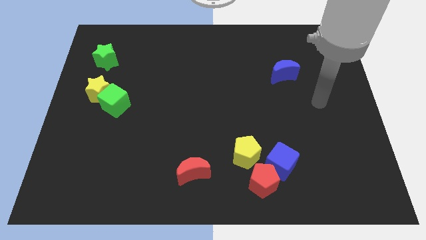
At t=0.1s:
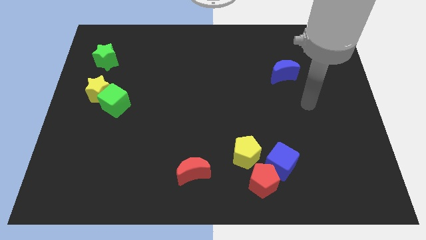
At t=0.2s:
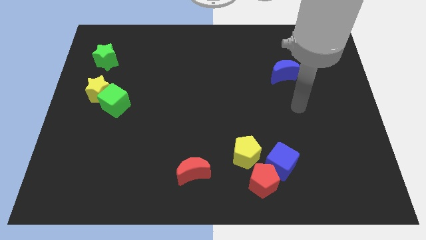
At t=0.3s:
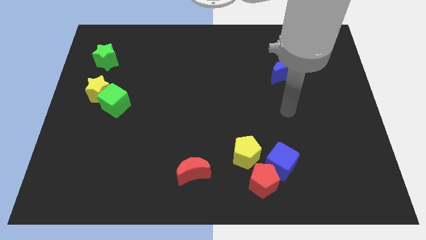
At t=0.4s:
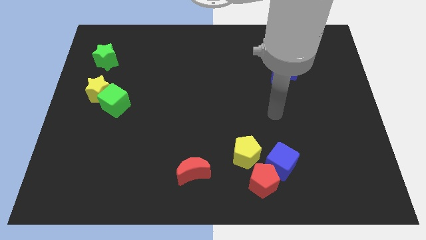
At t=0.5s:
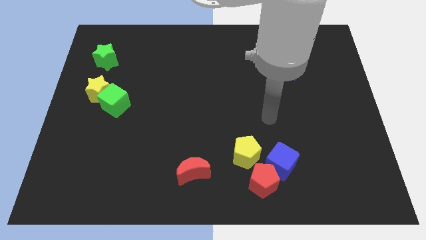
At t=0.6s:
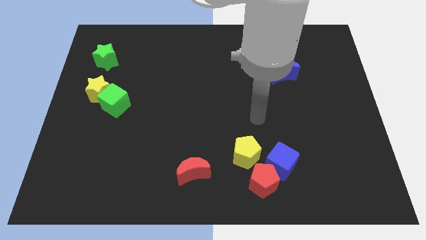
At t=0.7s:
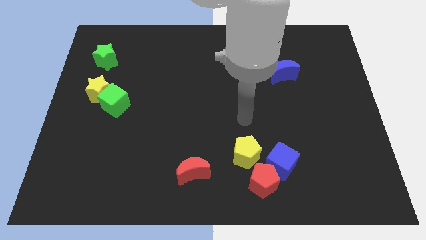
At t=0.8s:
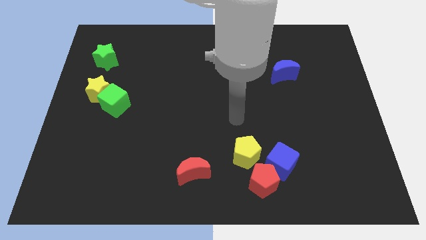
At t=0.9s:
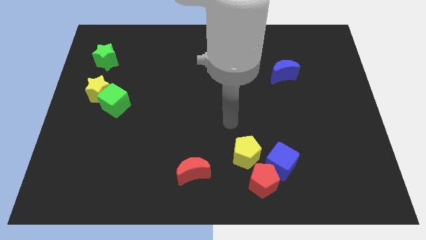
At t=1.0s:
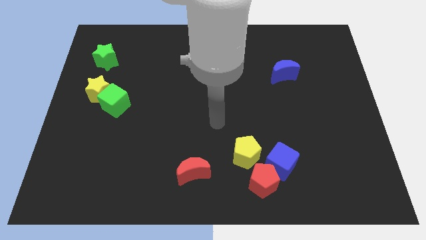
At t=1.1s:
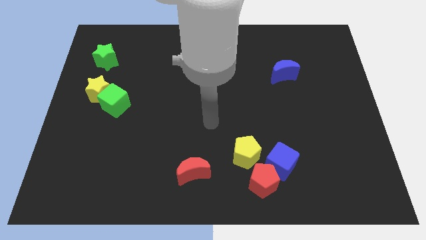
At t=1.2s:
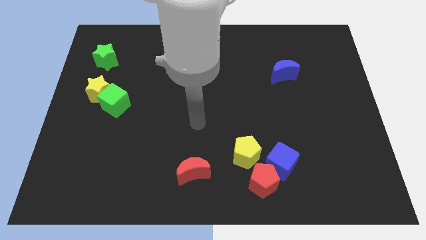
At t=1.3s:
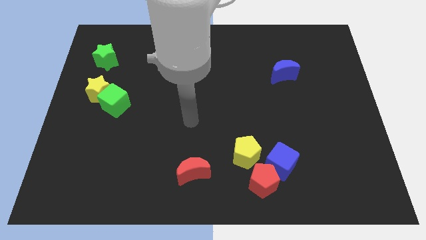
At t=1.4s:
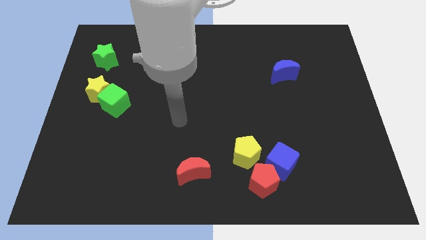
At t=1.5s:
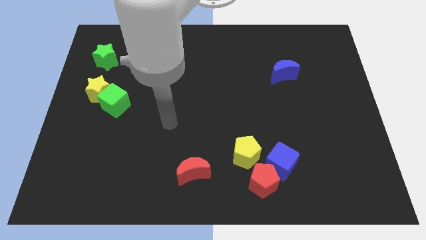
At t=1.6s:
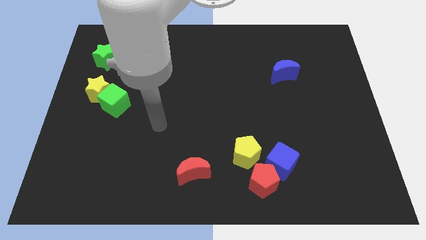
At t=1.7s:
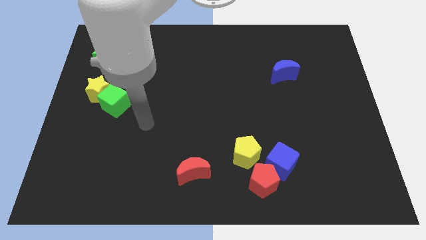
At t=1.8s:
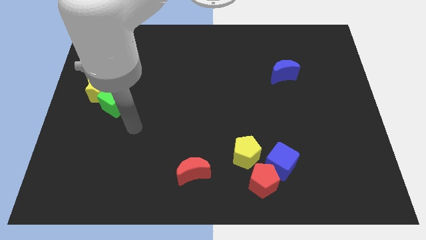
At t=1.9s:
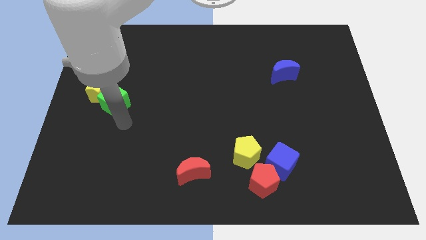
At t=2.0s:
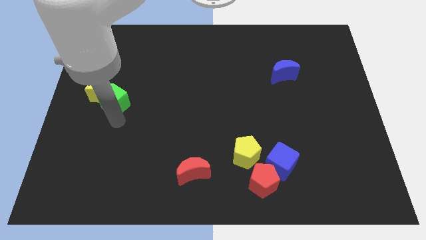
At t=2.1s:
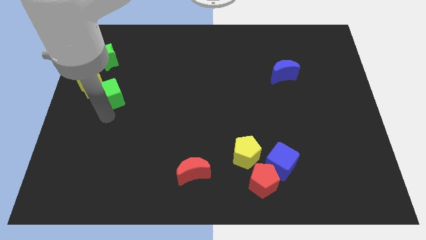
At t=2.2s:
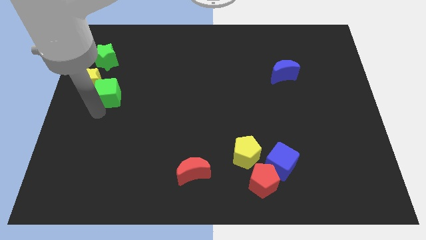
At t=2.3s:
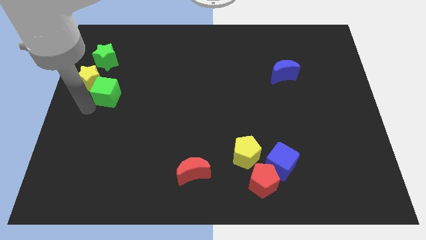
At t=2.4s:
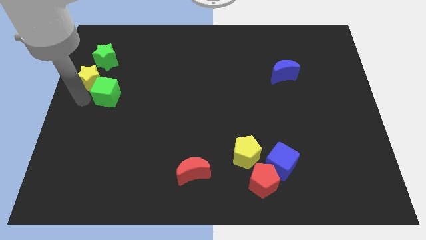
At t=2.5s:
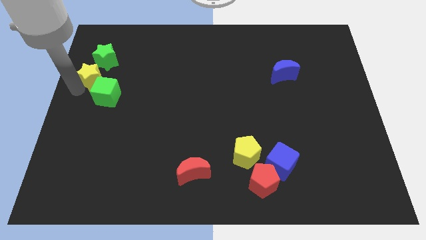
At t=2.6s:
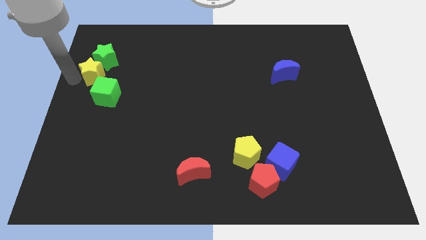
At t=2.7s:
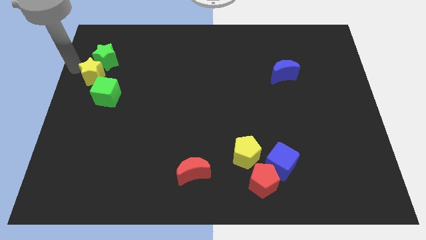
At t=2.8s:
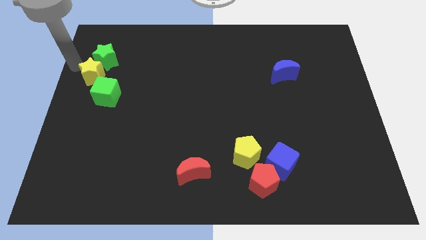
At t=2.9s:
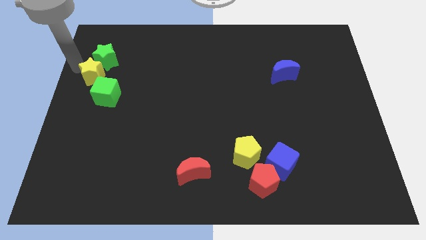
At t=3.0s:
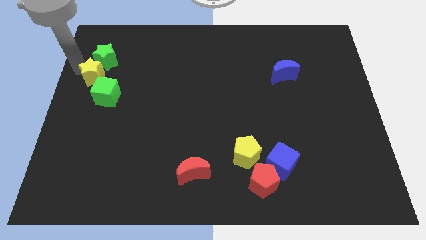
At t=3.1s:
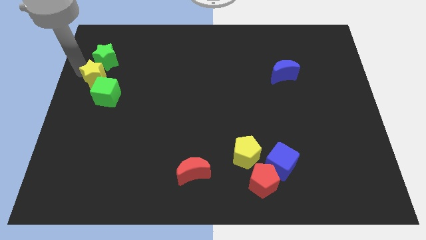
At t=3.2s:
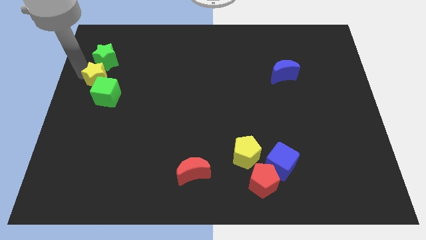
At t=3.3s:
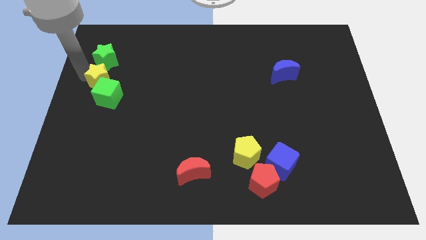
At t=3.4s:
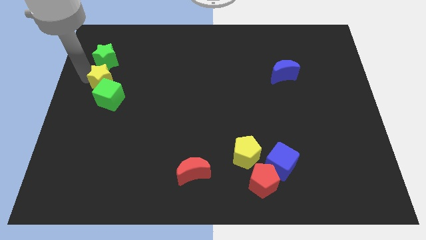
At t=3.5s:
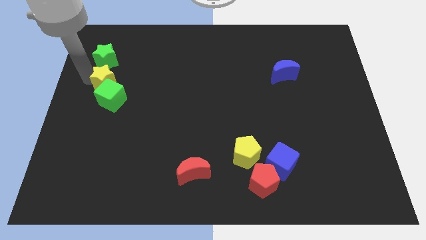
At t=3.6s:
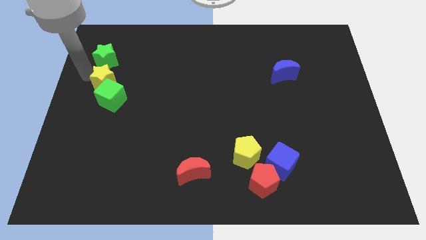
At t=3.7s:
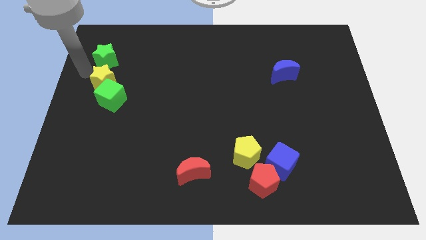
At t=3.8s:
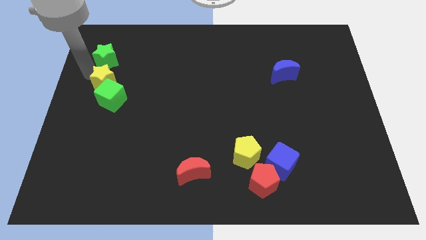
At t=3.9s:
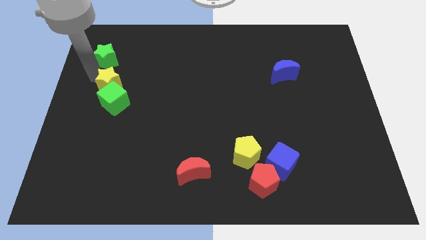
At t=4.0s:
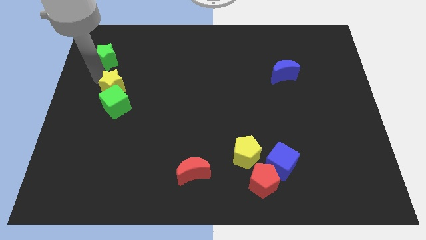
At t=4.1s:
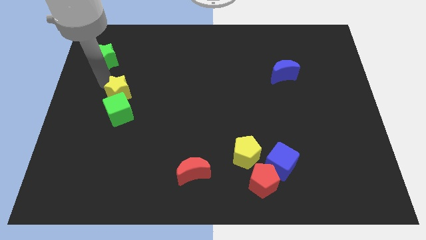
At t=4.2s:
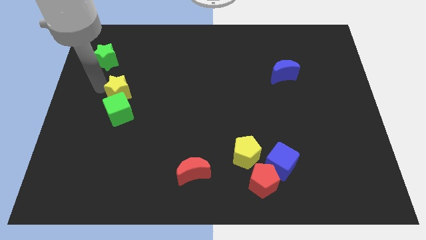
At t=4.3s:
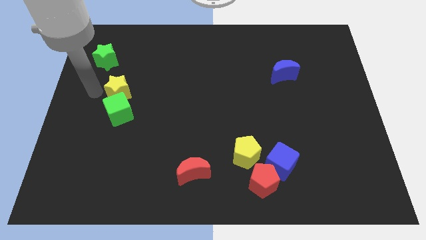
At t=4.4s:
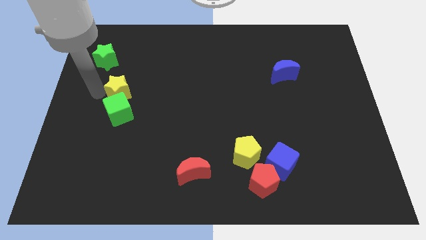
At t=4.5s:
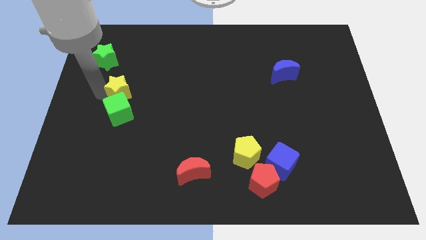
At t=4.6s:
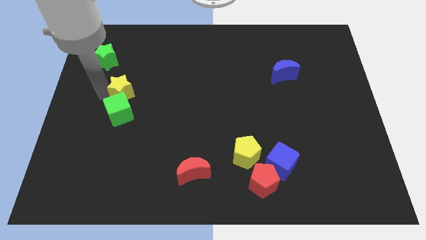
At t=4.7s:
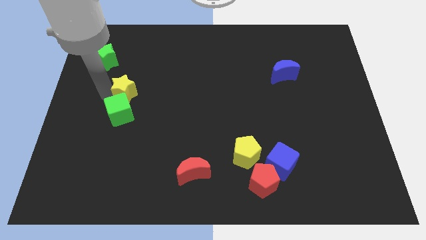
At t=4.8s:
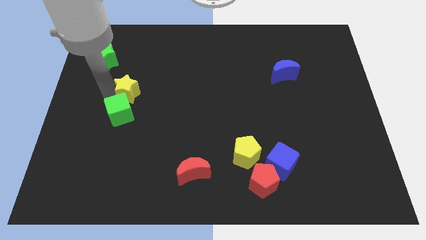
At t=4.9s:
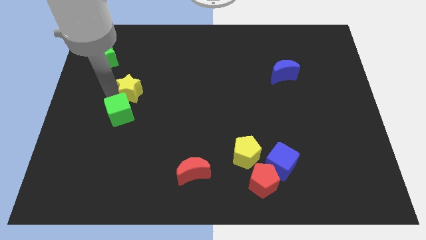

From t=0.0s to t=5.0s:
slightly move the yellow star right

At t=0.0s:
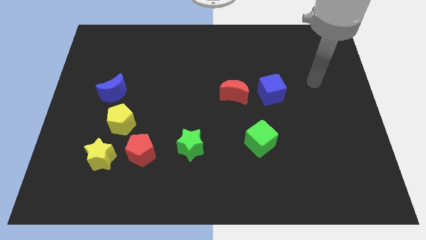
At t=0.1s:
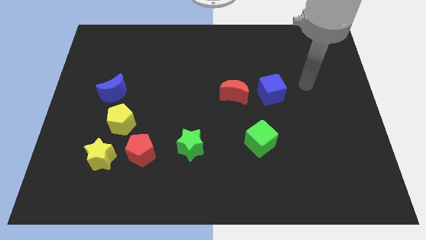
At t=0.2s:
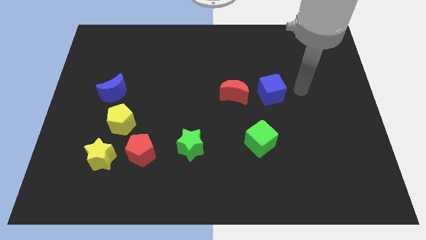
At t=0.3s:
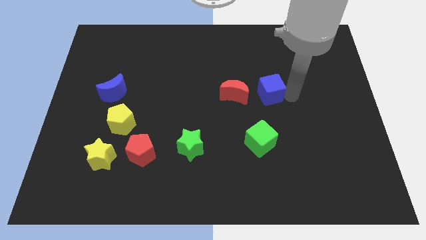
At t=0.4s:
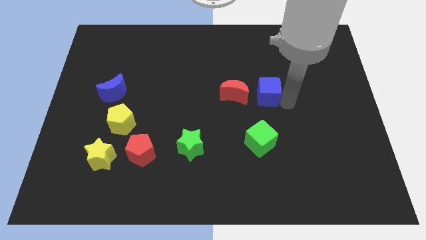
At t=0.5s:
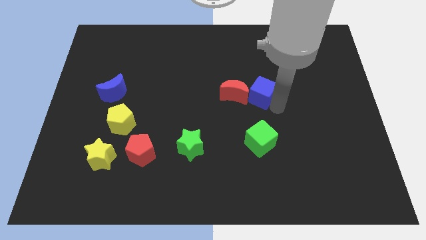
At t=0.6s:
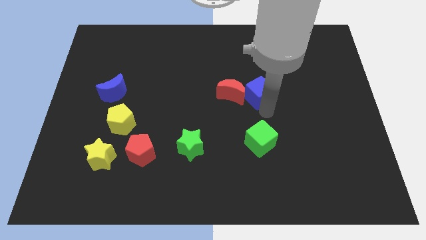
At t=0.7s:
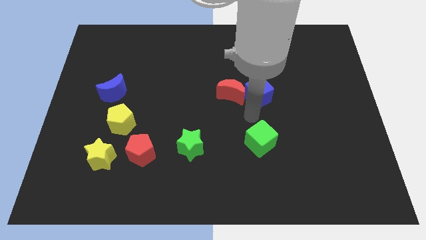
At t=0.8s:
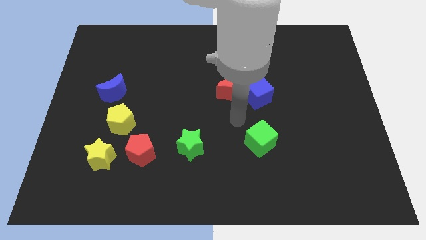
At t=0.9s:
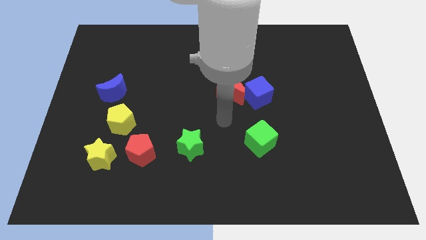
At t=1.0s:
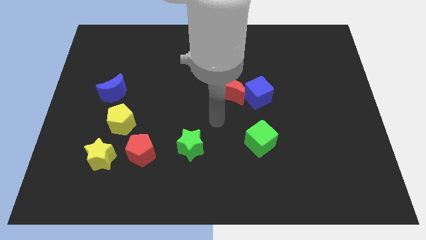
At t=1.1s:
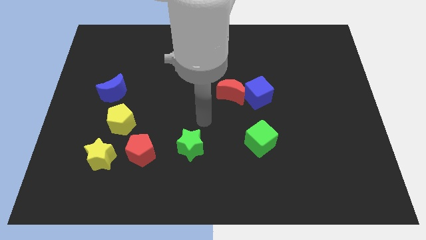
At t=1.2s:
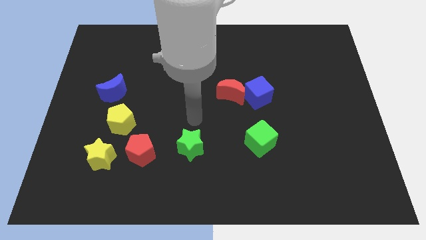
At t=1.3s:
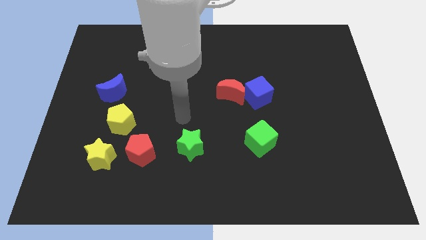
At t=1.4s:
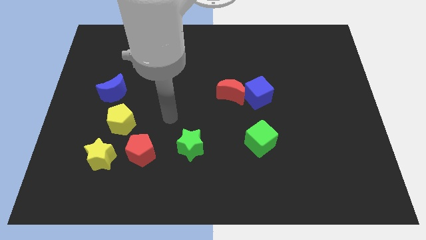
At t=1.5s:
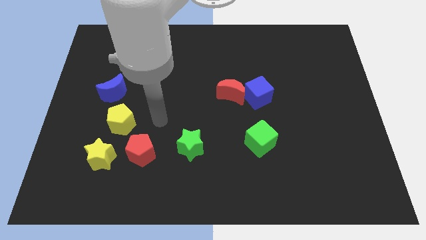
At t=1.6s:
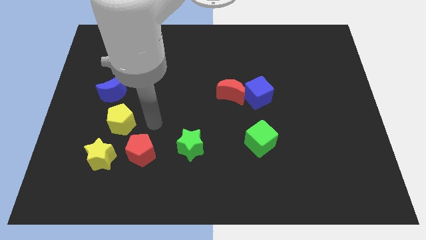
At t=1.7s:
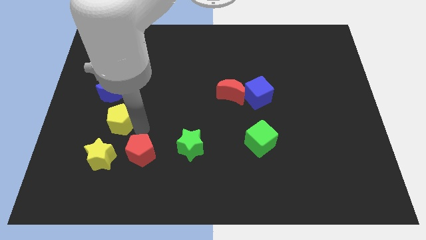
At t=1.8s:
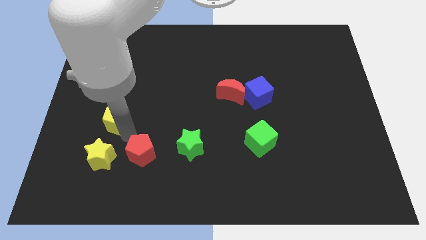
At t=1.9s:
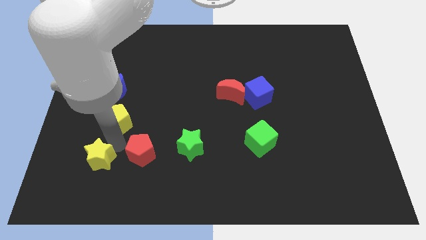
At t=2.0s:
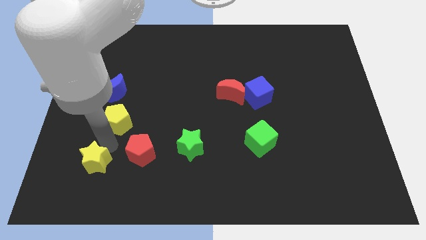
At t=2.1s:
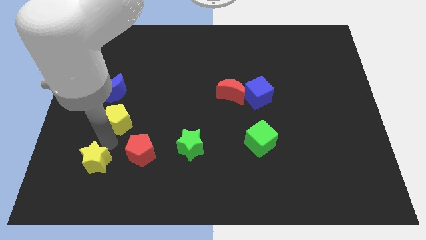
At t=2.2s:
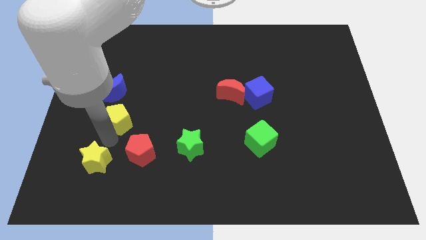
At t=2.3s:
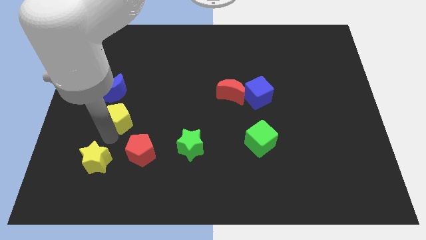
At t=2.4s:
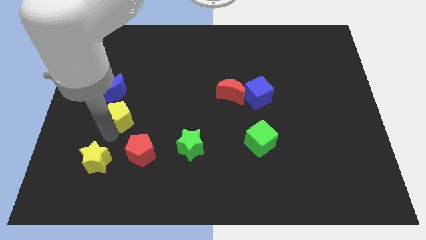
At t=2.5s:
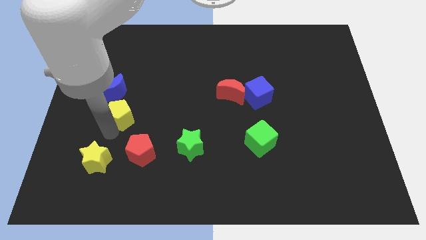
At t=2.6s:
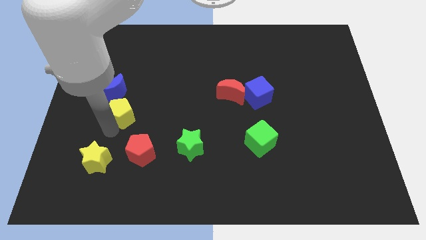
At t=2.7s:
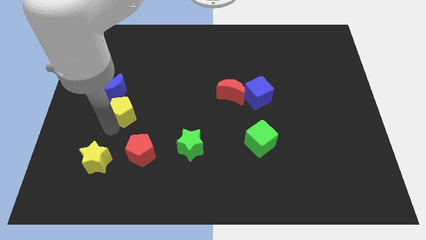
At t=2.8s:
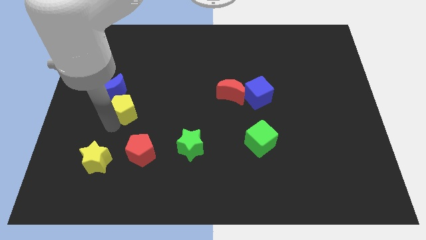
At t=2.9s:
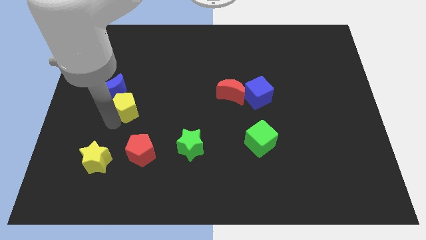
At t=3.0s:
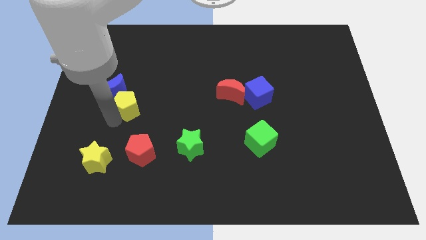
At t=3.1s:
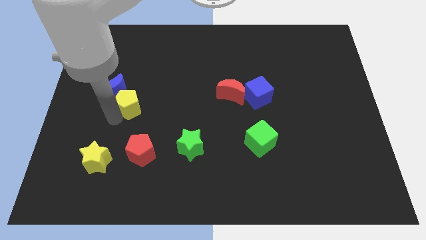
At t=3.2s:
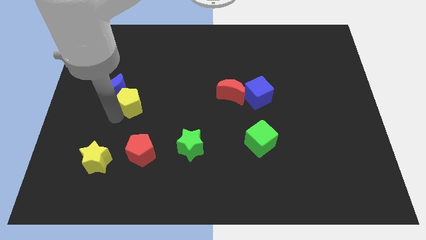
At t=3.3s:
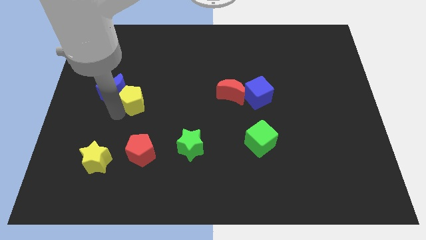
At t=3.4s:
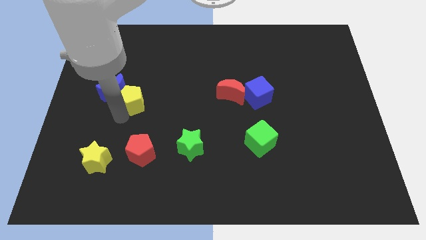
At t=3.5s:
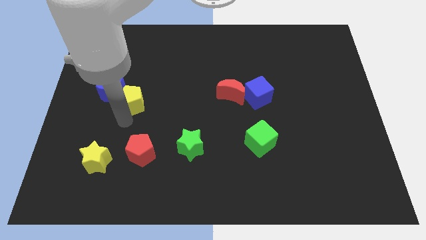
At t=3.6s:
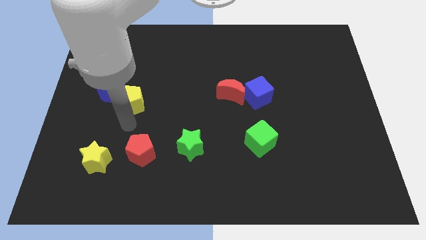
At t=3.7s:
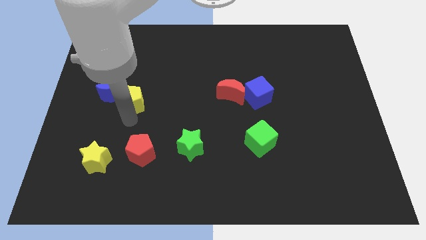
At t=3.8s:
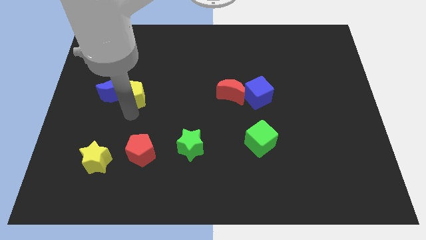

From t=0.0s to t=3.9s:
move the yellow pentagon up a bit
